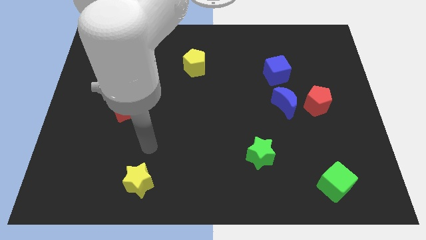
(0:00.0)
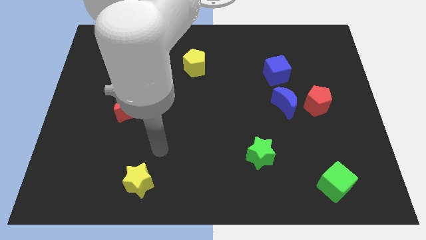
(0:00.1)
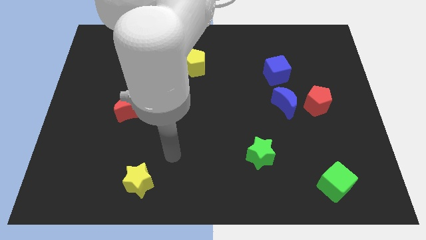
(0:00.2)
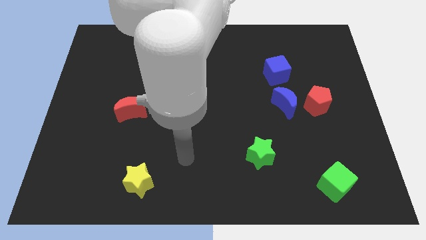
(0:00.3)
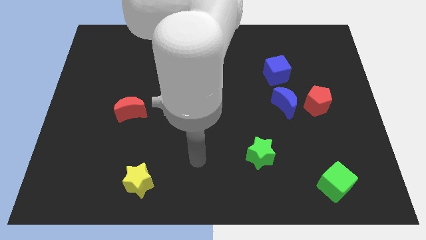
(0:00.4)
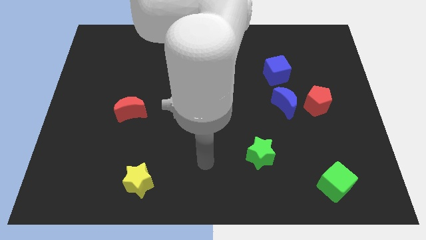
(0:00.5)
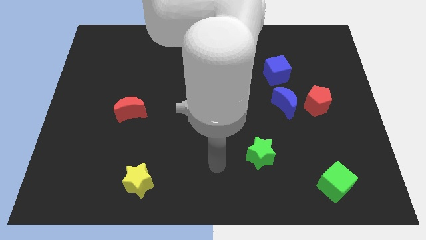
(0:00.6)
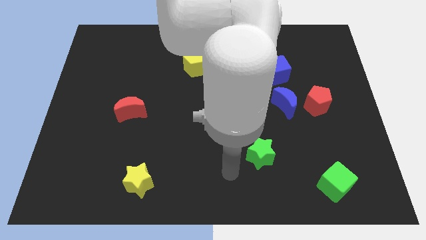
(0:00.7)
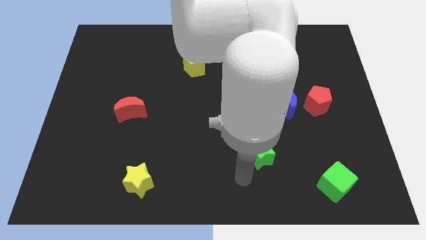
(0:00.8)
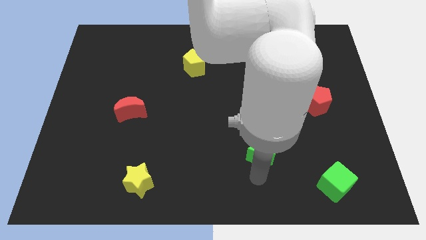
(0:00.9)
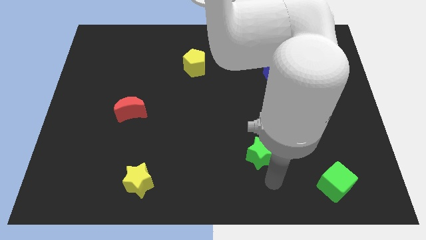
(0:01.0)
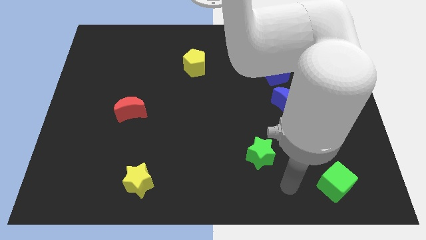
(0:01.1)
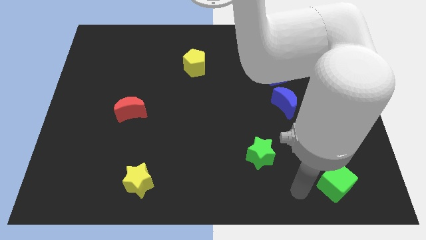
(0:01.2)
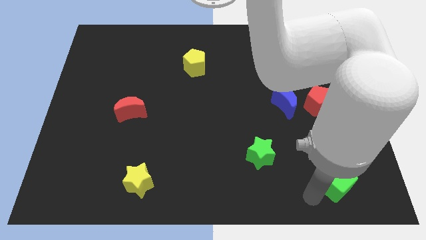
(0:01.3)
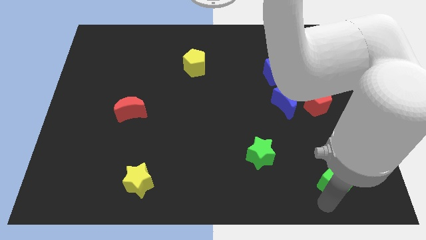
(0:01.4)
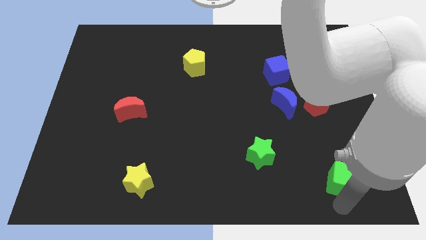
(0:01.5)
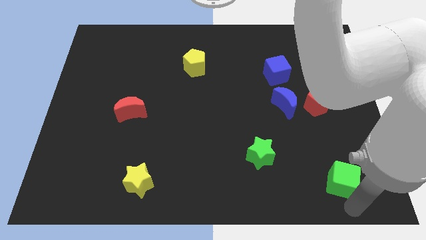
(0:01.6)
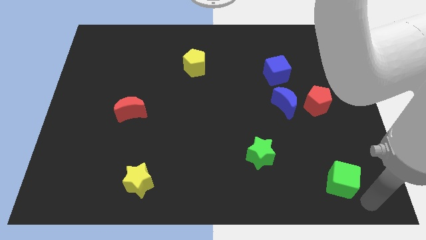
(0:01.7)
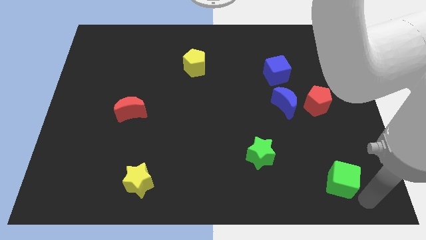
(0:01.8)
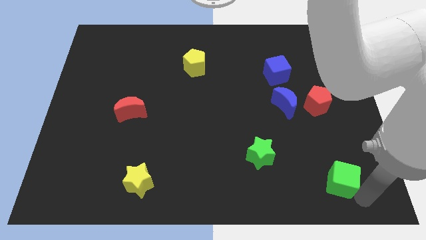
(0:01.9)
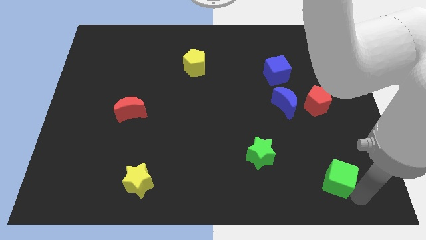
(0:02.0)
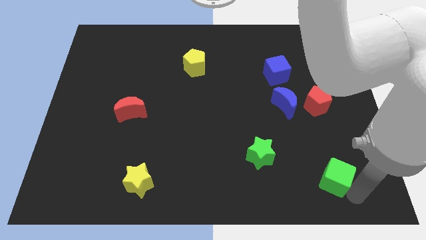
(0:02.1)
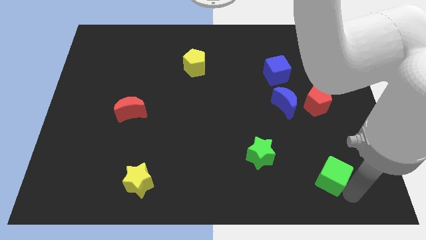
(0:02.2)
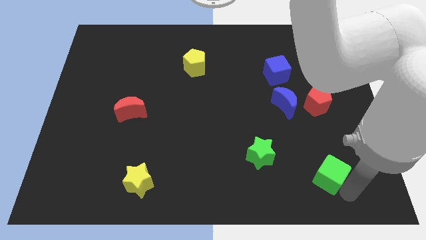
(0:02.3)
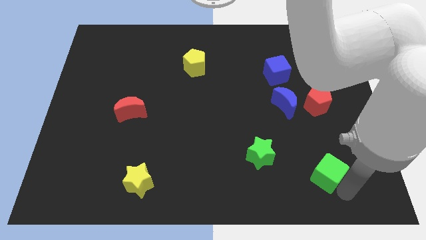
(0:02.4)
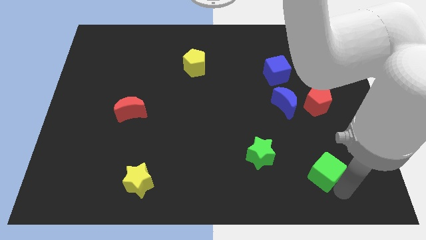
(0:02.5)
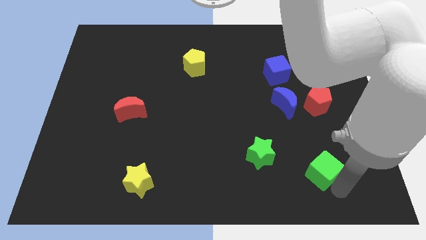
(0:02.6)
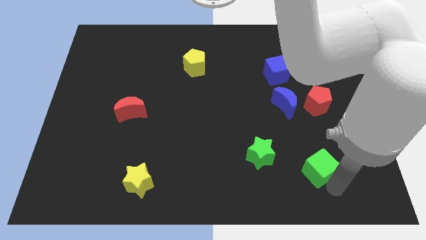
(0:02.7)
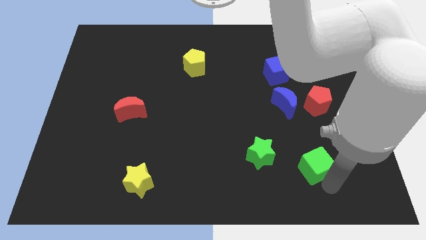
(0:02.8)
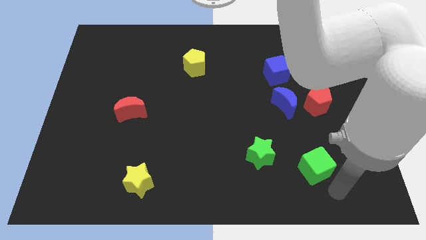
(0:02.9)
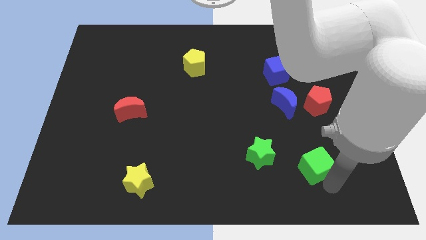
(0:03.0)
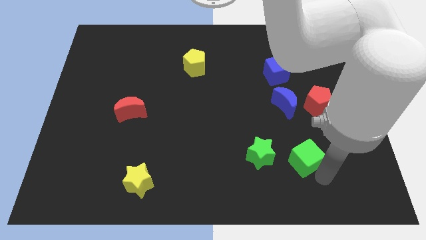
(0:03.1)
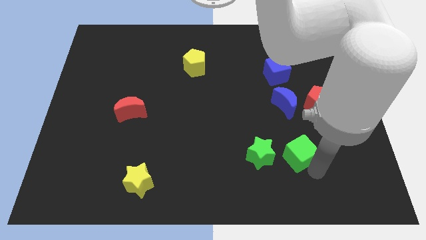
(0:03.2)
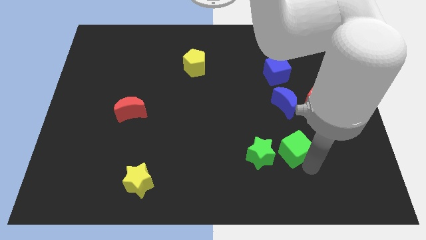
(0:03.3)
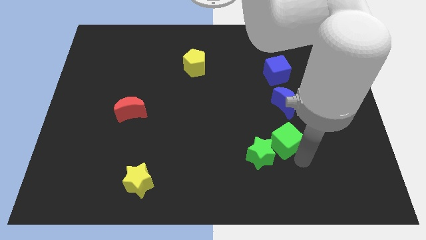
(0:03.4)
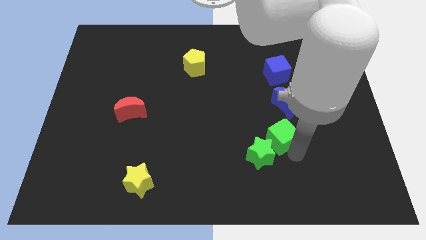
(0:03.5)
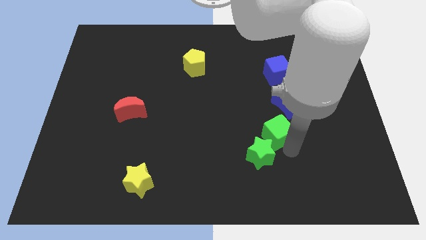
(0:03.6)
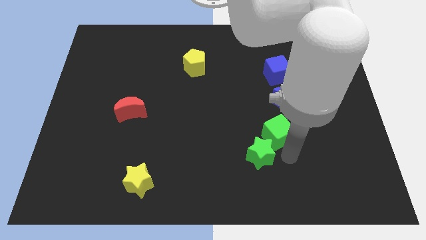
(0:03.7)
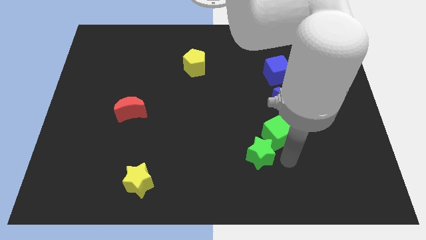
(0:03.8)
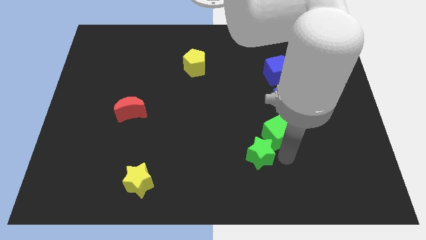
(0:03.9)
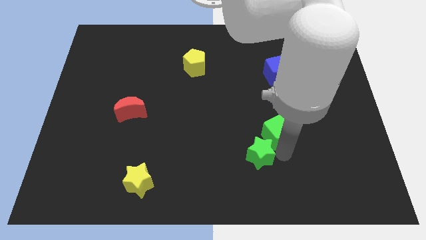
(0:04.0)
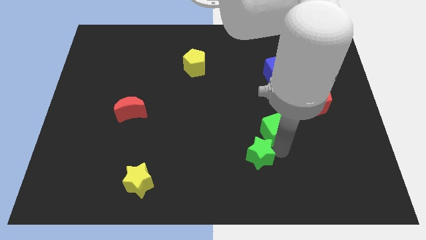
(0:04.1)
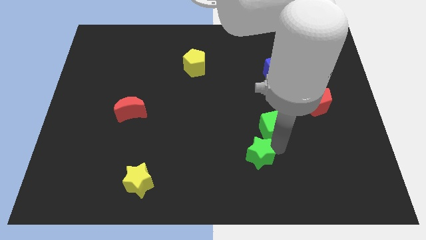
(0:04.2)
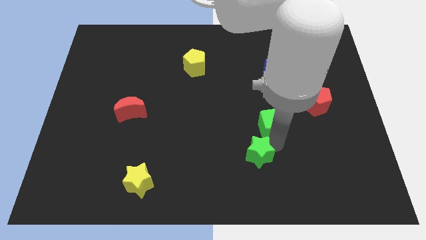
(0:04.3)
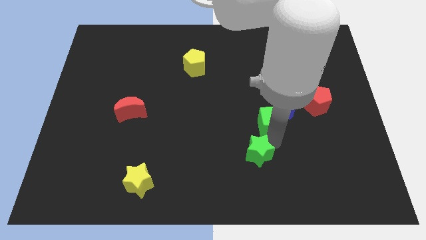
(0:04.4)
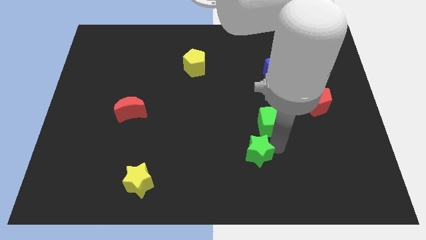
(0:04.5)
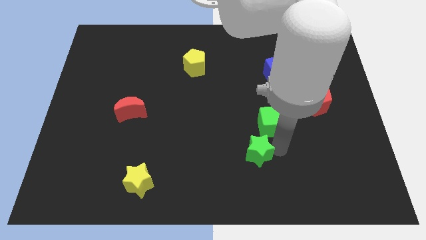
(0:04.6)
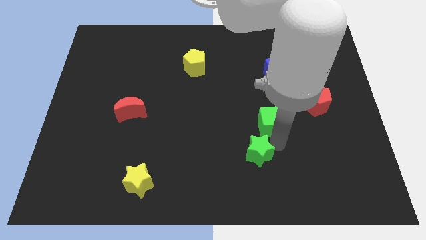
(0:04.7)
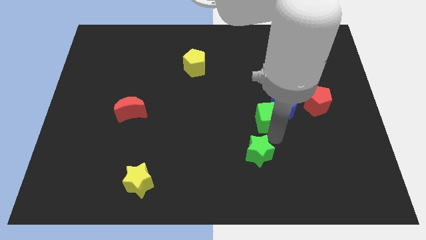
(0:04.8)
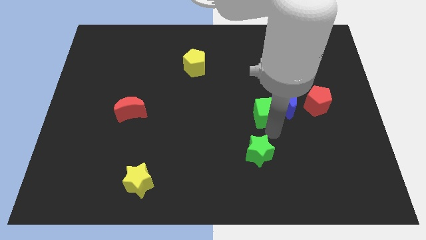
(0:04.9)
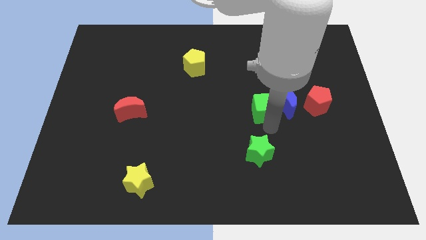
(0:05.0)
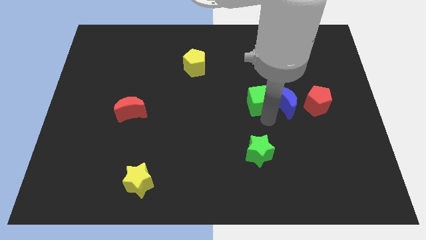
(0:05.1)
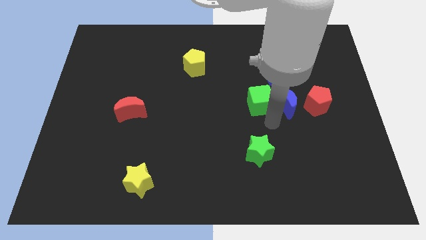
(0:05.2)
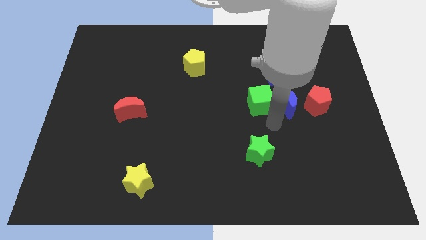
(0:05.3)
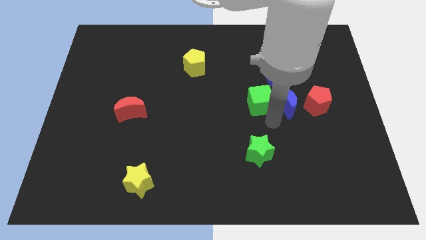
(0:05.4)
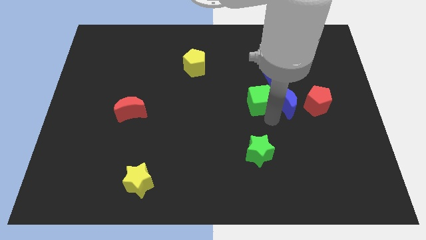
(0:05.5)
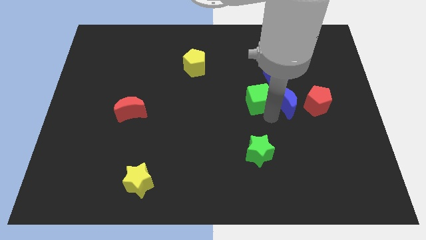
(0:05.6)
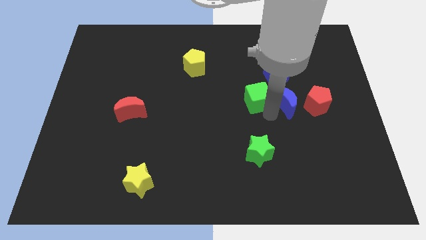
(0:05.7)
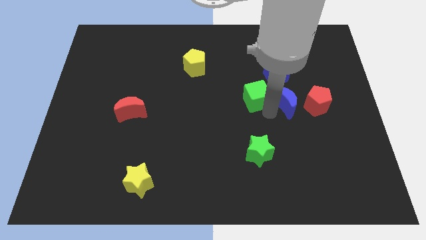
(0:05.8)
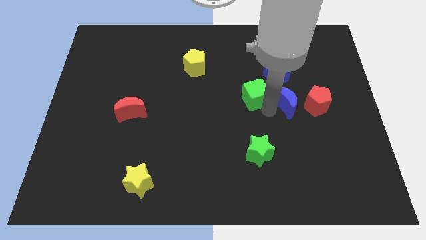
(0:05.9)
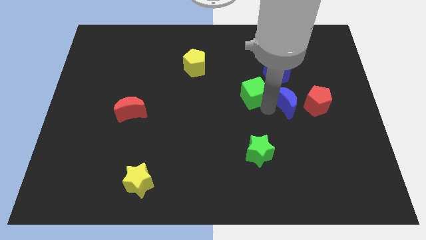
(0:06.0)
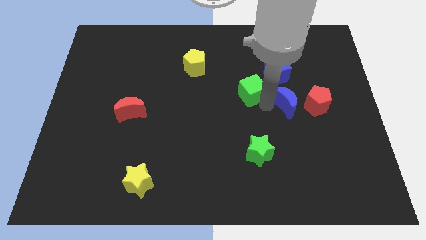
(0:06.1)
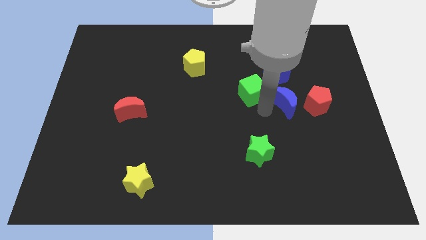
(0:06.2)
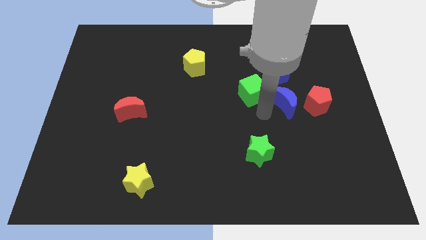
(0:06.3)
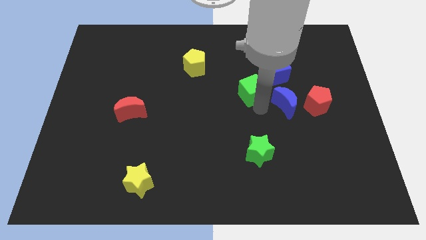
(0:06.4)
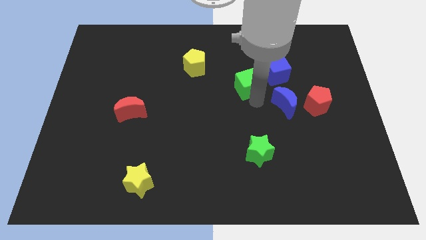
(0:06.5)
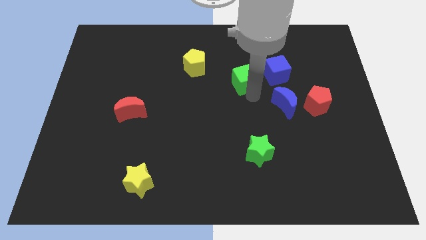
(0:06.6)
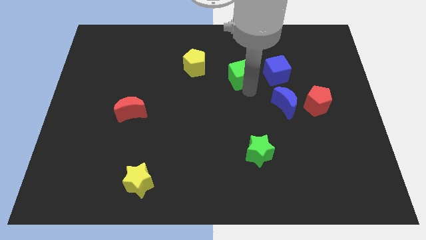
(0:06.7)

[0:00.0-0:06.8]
move the green cube right of the yellow pentagon

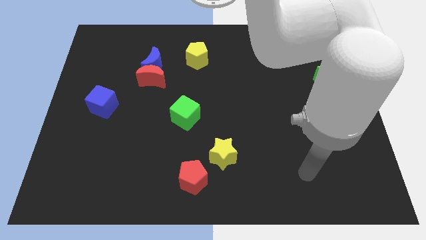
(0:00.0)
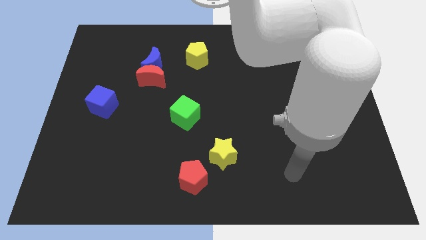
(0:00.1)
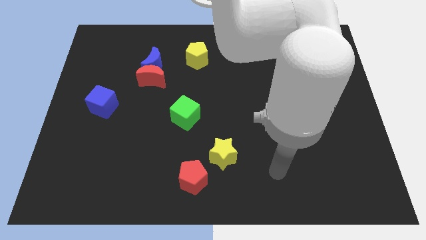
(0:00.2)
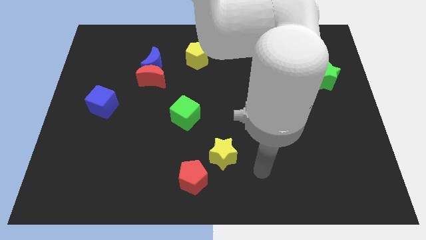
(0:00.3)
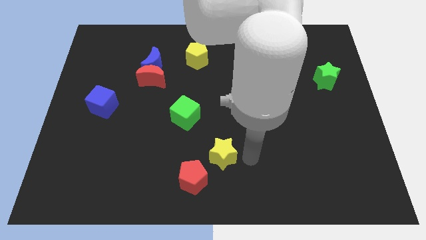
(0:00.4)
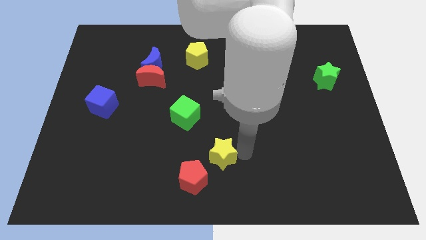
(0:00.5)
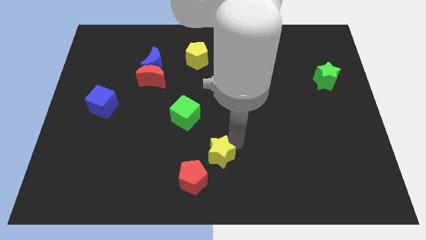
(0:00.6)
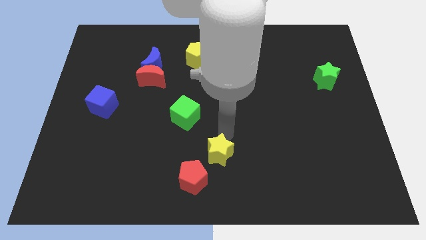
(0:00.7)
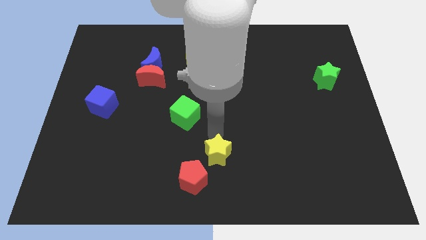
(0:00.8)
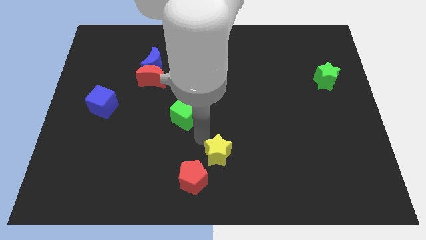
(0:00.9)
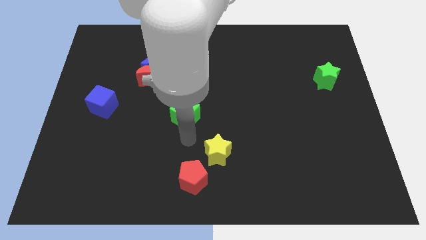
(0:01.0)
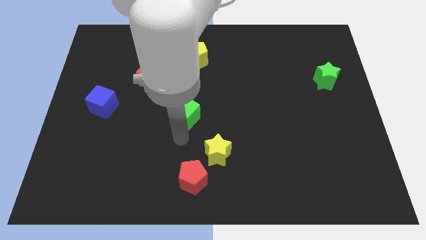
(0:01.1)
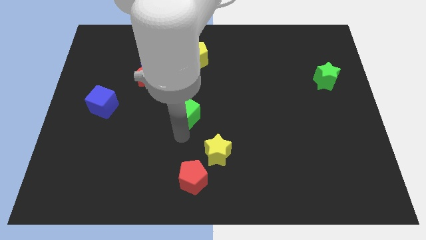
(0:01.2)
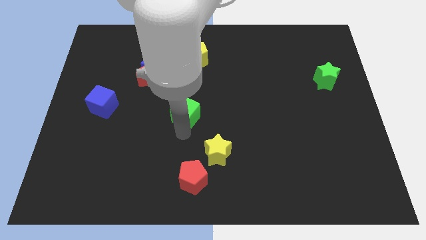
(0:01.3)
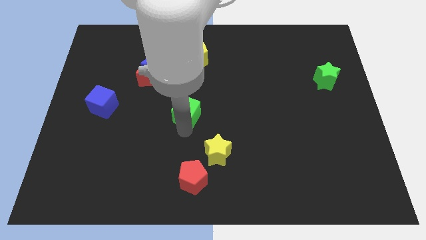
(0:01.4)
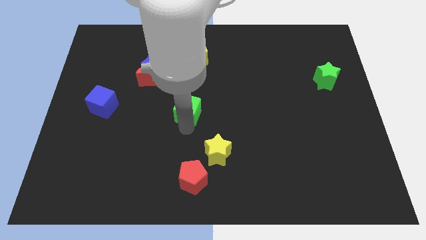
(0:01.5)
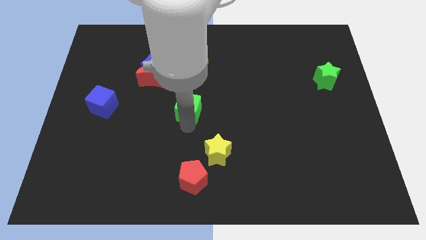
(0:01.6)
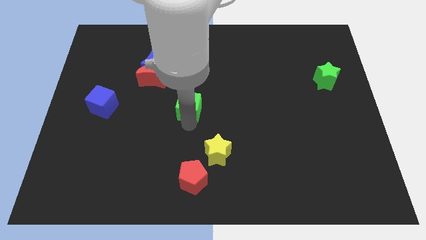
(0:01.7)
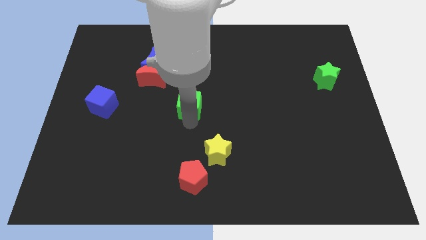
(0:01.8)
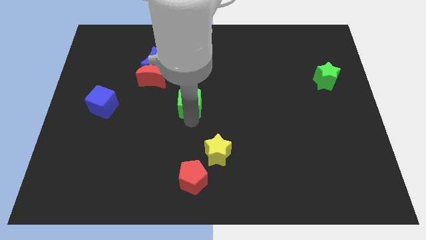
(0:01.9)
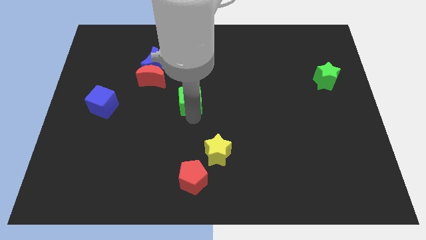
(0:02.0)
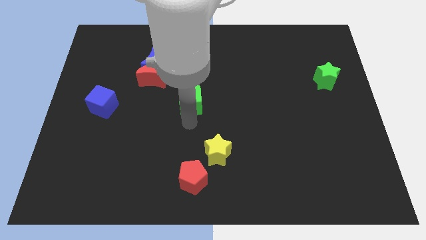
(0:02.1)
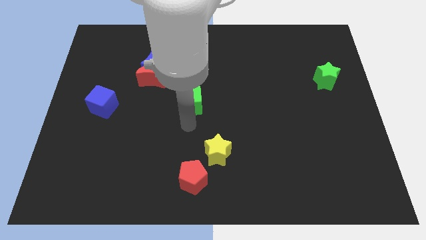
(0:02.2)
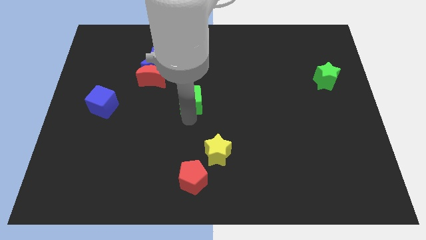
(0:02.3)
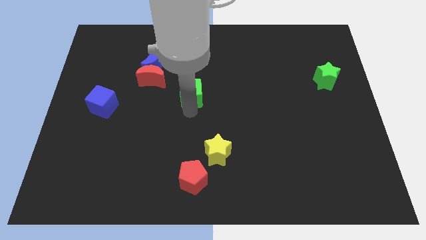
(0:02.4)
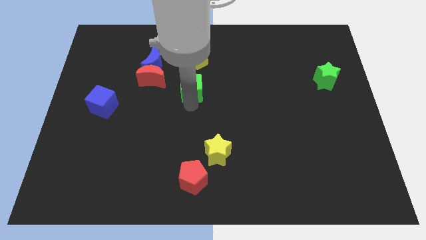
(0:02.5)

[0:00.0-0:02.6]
move the green cube just right of the red moon
